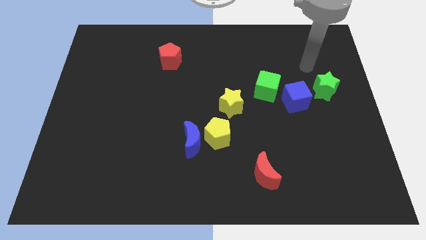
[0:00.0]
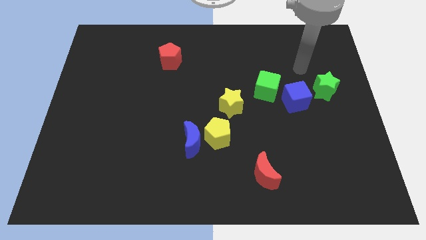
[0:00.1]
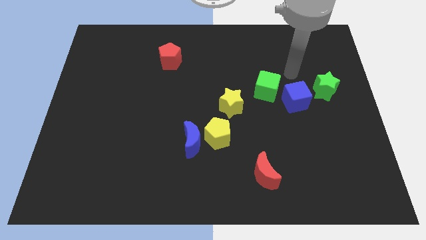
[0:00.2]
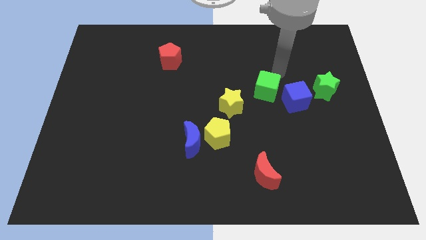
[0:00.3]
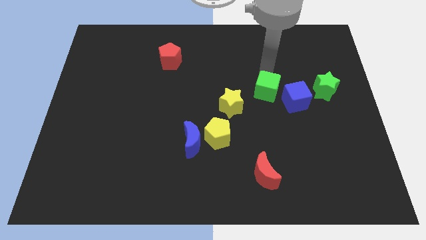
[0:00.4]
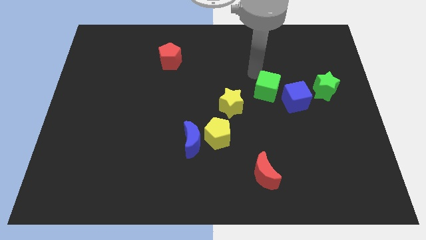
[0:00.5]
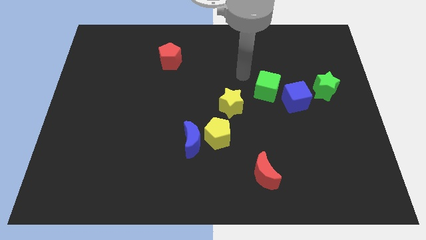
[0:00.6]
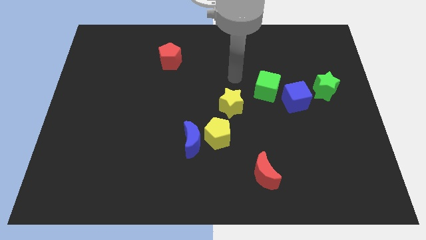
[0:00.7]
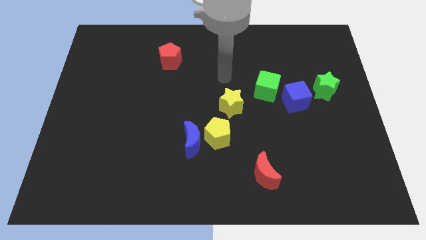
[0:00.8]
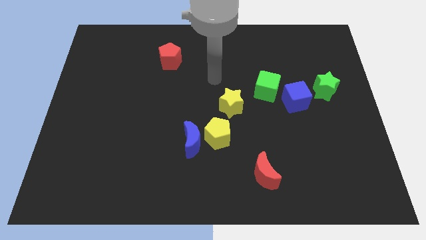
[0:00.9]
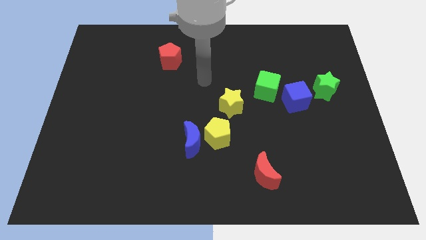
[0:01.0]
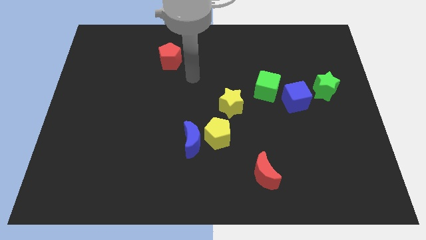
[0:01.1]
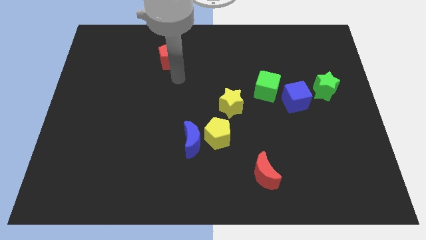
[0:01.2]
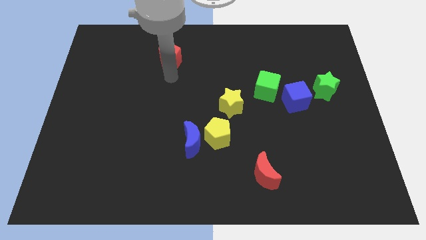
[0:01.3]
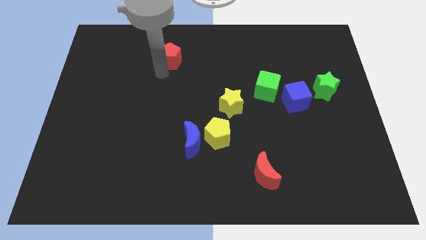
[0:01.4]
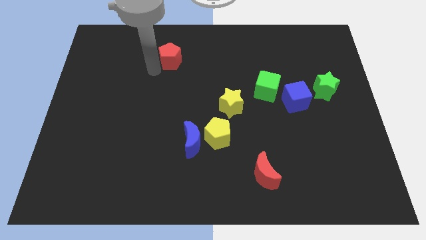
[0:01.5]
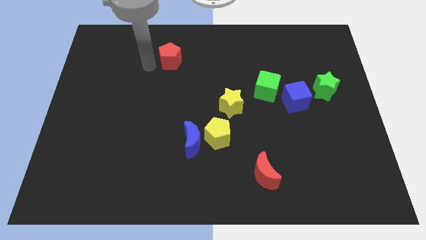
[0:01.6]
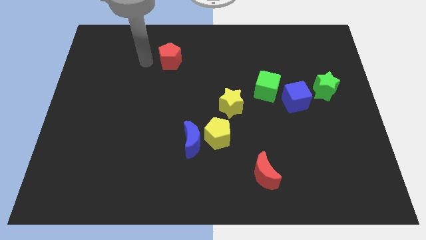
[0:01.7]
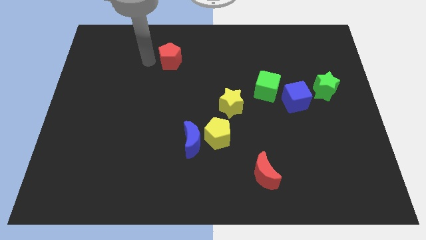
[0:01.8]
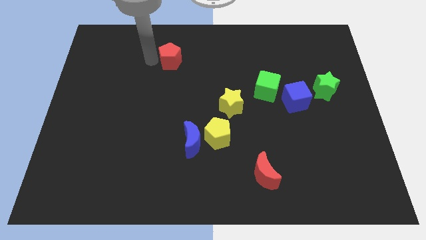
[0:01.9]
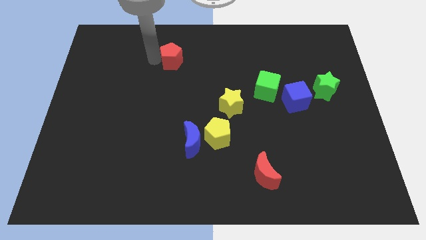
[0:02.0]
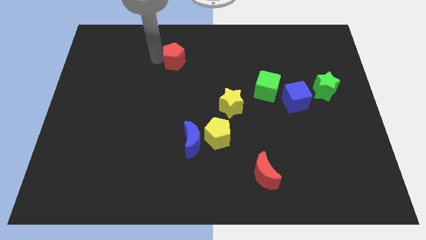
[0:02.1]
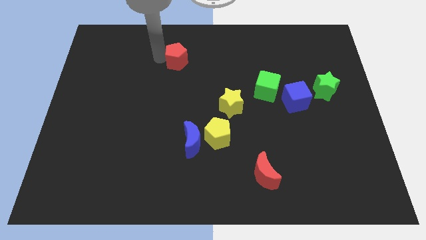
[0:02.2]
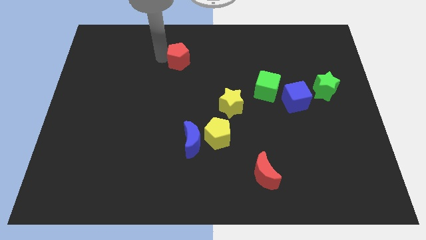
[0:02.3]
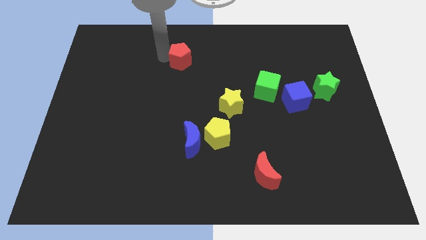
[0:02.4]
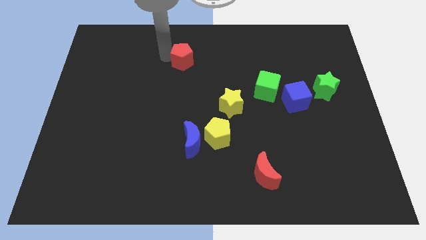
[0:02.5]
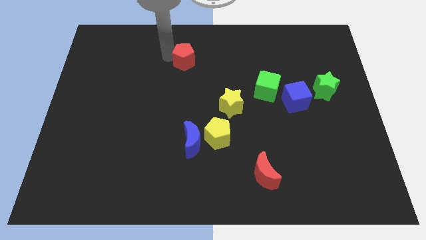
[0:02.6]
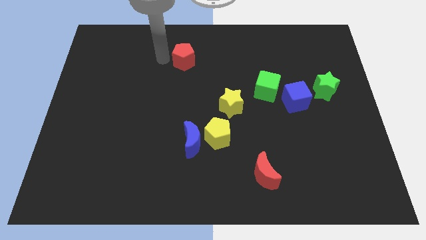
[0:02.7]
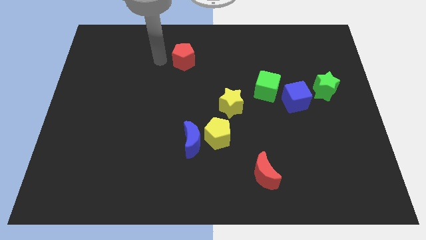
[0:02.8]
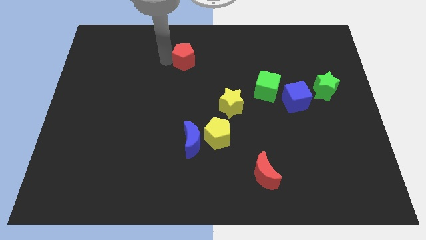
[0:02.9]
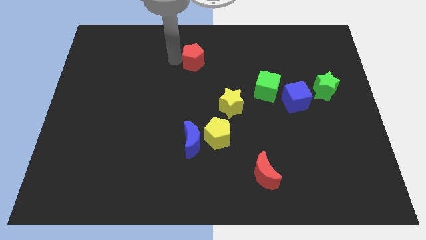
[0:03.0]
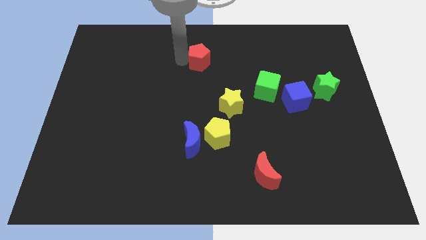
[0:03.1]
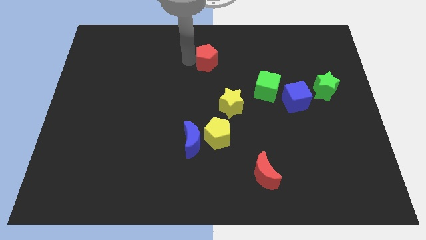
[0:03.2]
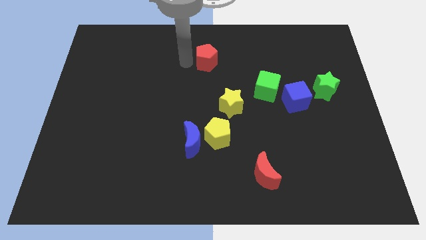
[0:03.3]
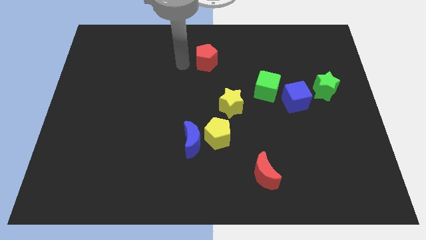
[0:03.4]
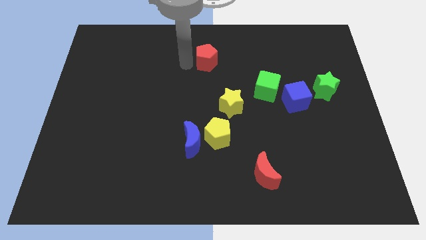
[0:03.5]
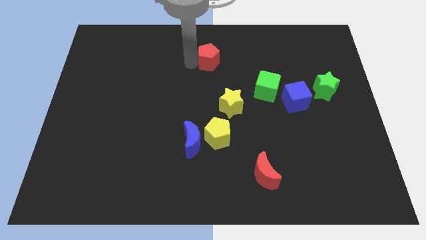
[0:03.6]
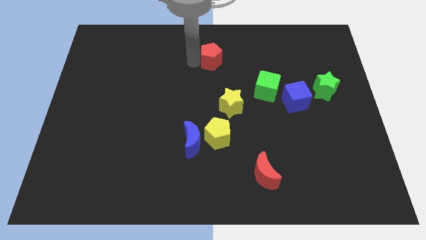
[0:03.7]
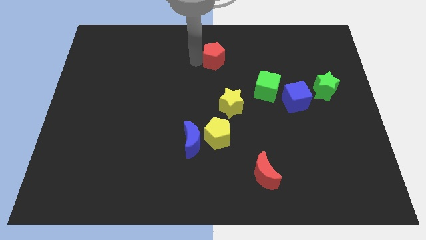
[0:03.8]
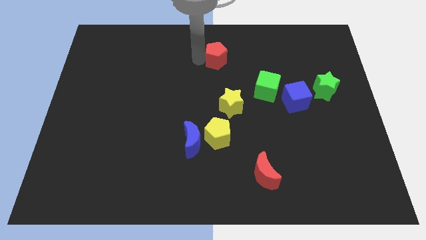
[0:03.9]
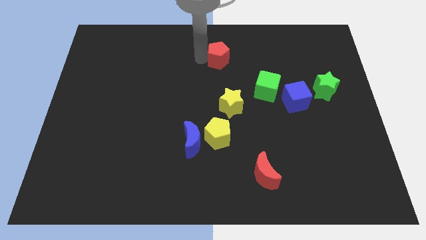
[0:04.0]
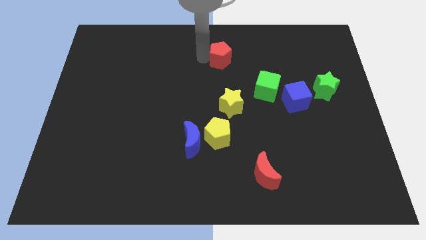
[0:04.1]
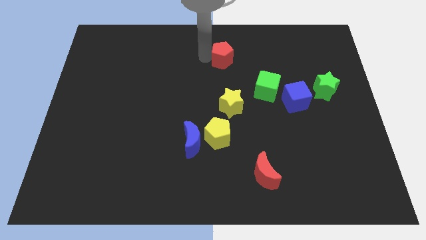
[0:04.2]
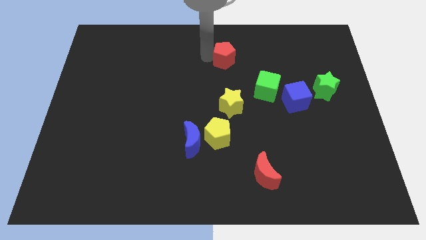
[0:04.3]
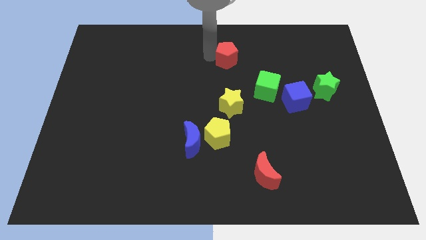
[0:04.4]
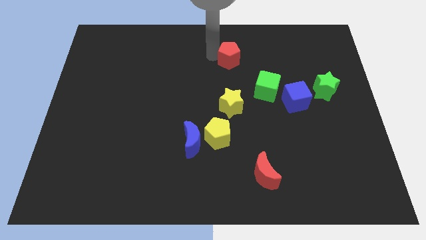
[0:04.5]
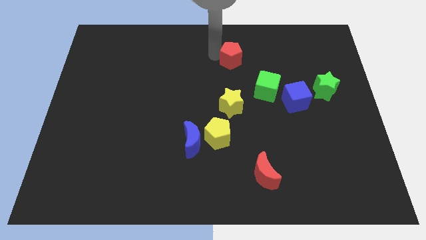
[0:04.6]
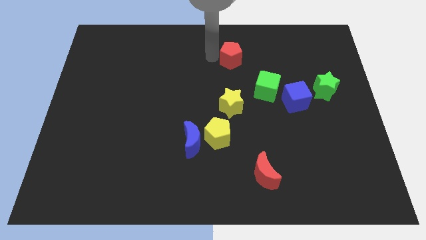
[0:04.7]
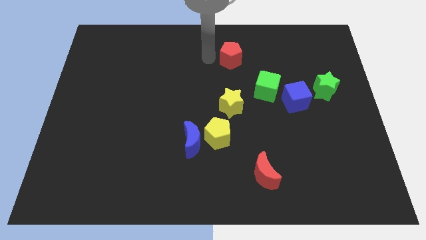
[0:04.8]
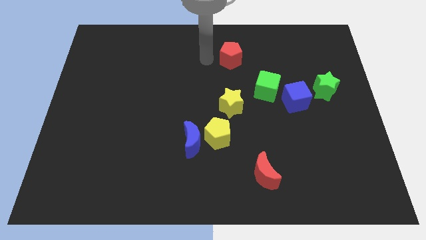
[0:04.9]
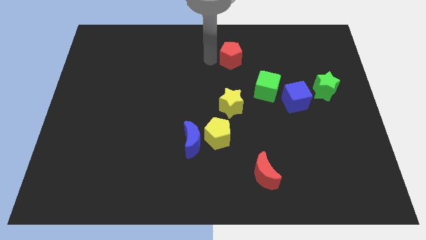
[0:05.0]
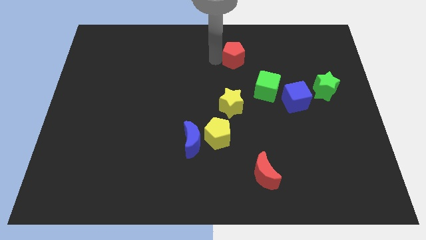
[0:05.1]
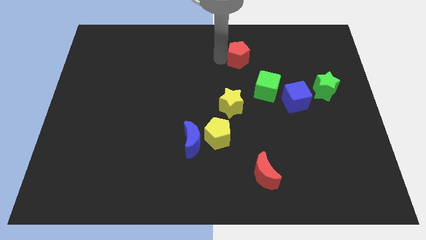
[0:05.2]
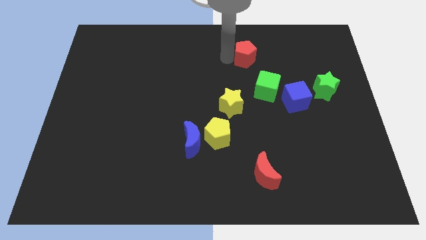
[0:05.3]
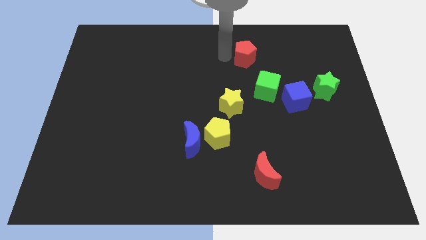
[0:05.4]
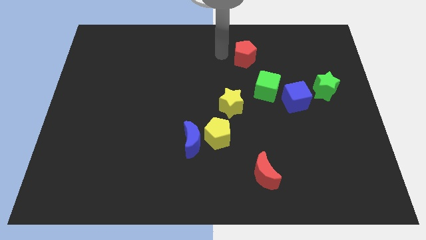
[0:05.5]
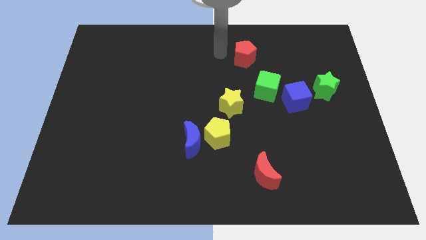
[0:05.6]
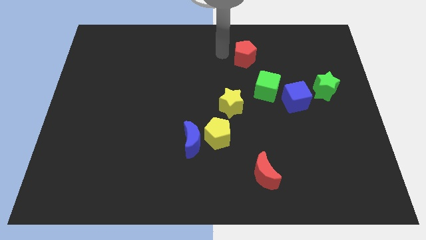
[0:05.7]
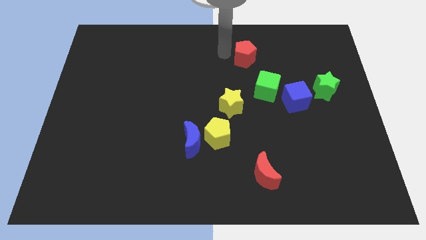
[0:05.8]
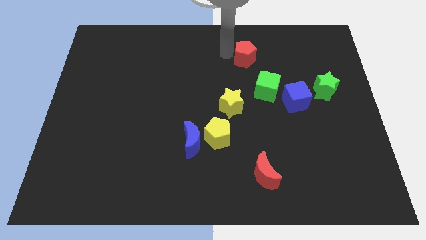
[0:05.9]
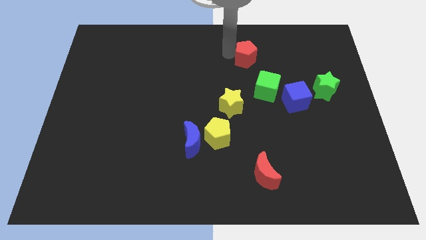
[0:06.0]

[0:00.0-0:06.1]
push the red pentagon to the right

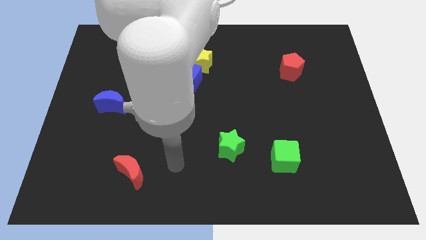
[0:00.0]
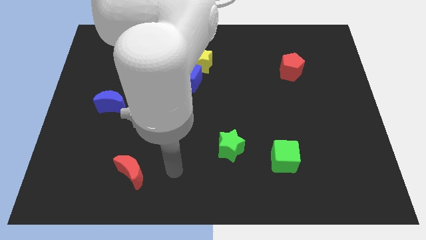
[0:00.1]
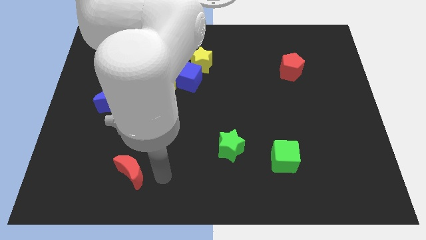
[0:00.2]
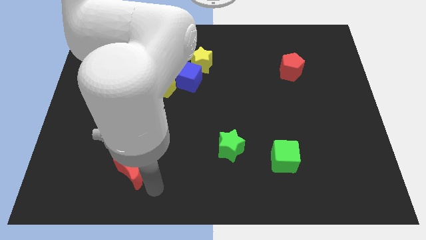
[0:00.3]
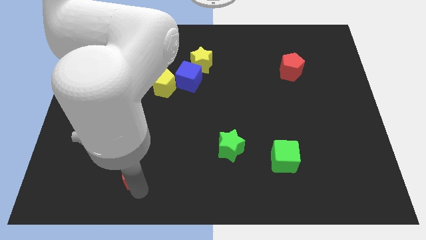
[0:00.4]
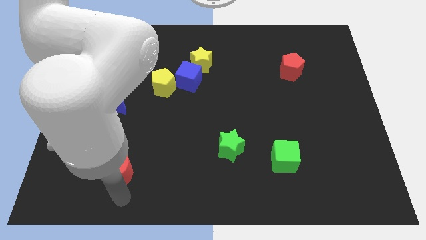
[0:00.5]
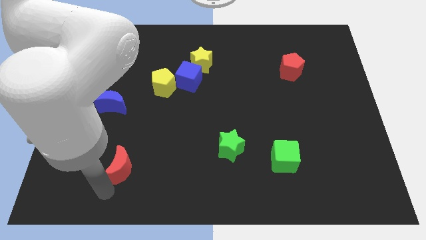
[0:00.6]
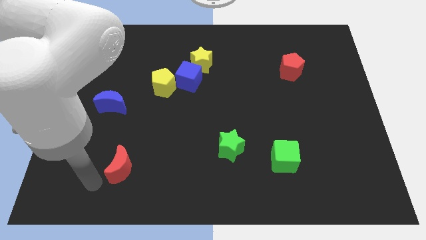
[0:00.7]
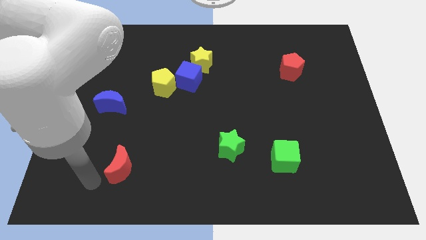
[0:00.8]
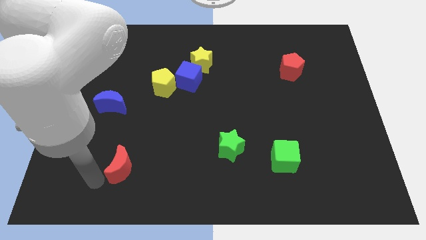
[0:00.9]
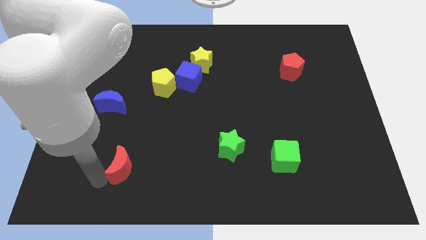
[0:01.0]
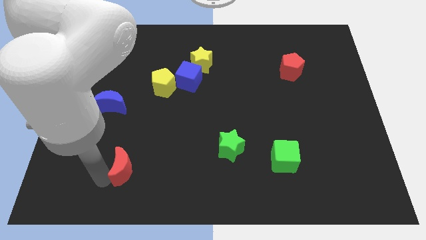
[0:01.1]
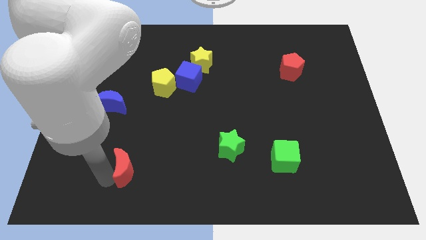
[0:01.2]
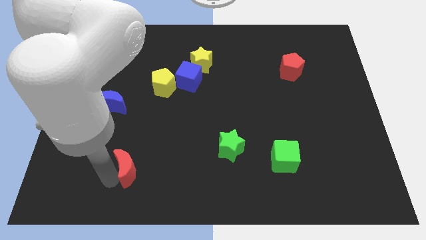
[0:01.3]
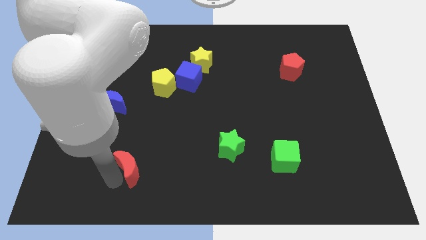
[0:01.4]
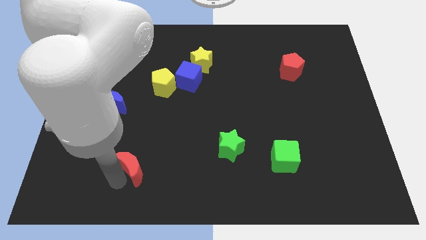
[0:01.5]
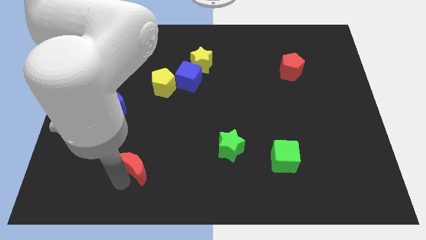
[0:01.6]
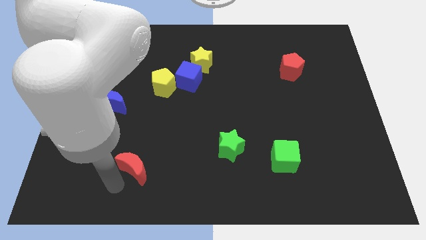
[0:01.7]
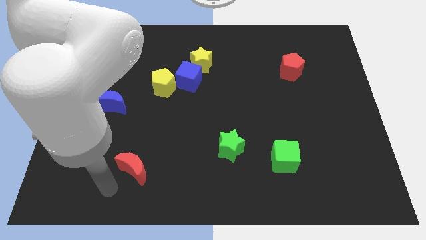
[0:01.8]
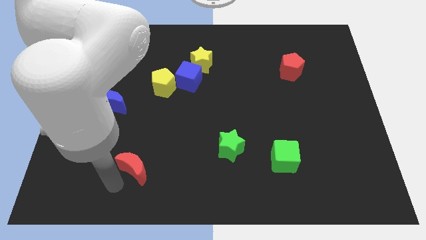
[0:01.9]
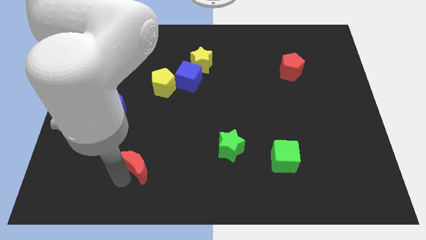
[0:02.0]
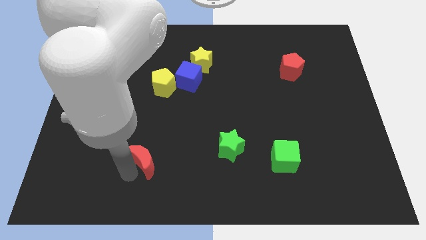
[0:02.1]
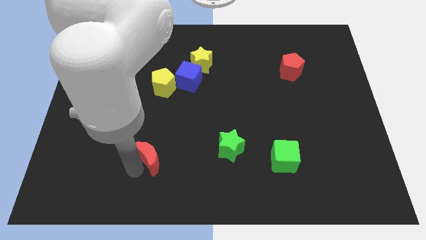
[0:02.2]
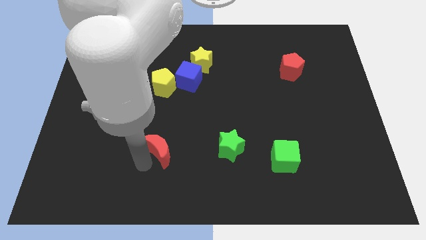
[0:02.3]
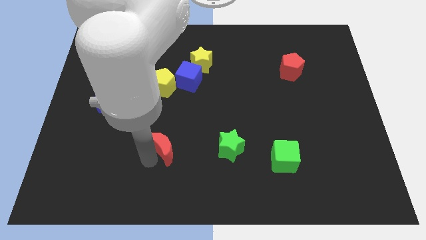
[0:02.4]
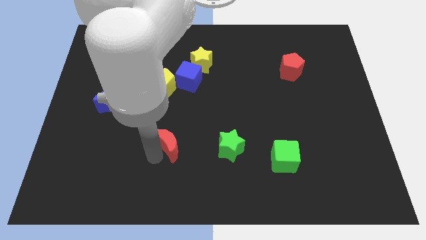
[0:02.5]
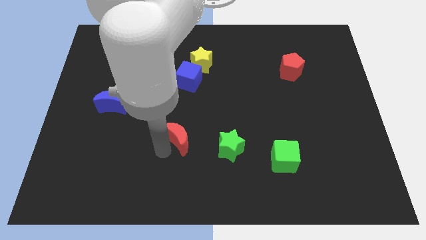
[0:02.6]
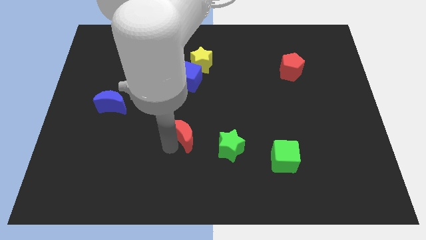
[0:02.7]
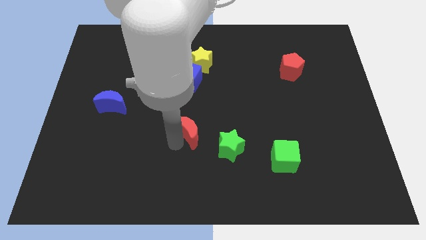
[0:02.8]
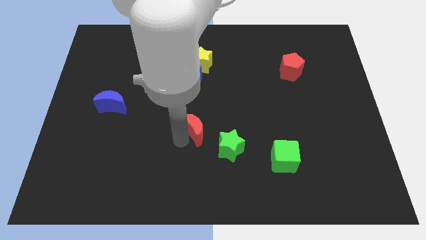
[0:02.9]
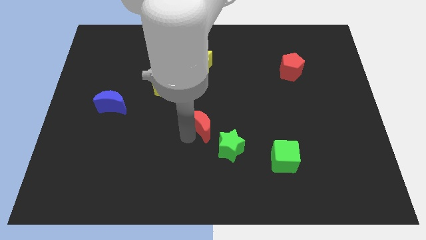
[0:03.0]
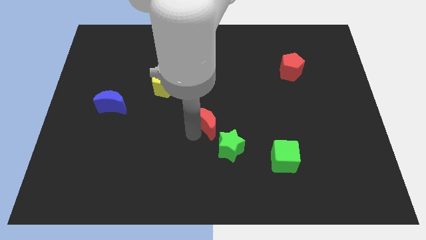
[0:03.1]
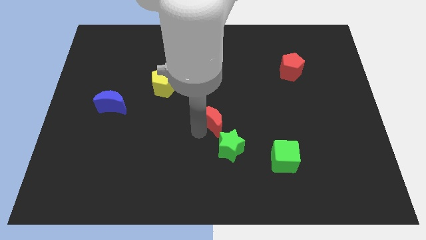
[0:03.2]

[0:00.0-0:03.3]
push the red moon up and to the right diagonally
